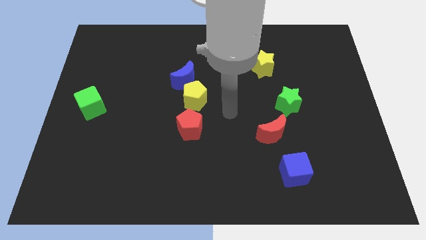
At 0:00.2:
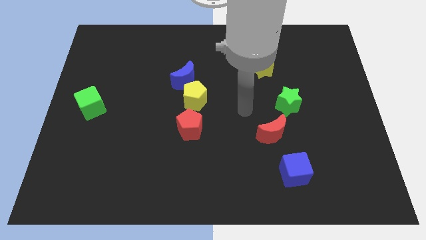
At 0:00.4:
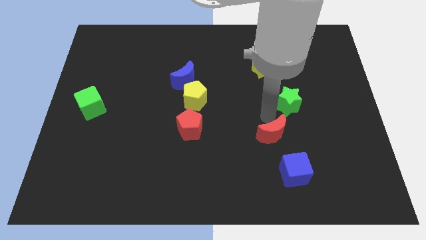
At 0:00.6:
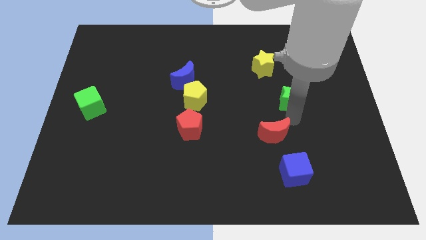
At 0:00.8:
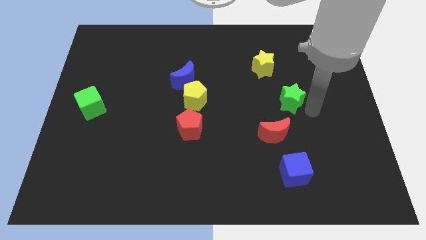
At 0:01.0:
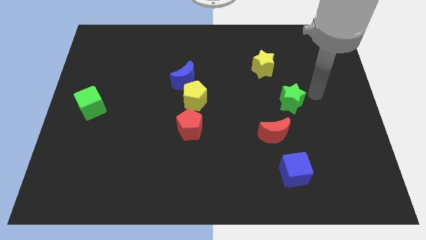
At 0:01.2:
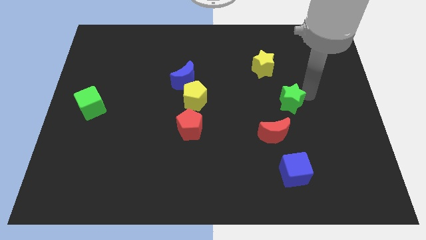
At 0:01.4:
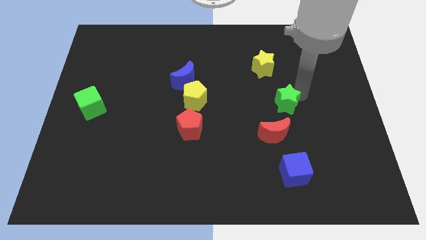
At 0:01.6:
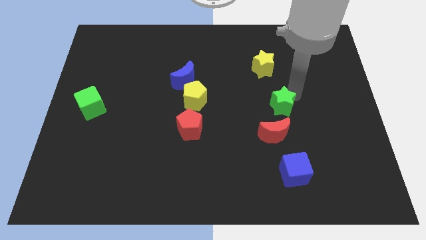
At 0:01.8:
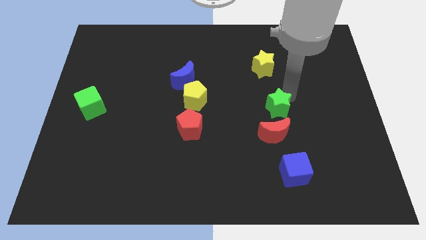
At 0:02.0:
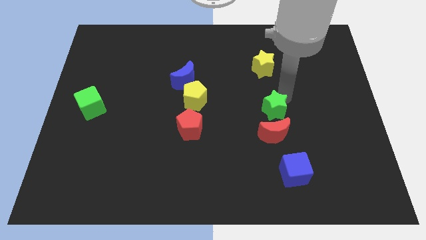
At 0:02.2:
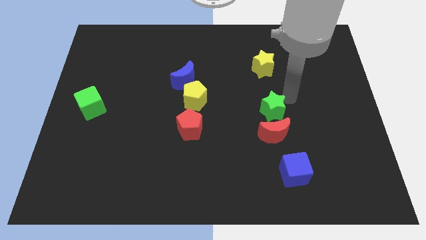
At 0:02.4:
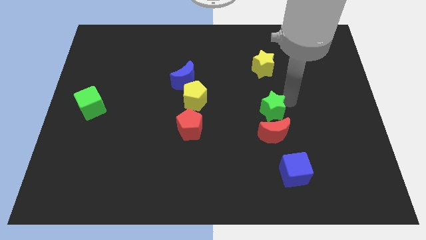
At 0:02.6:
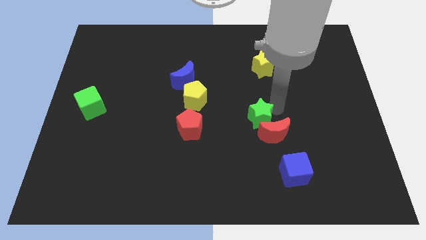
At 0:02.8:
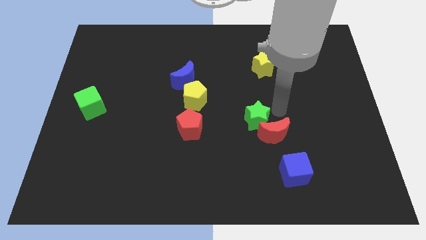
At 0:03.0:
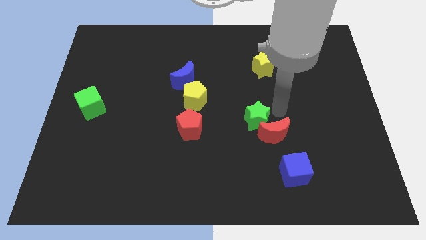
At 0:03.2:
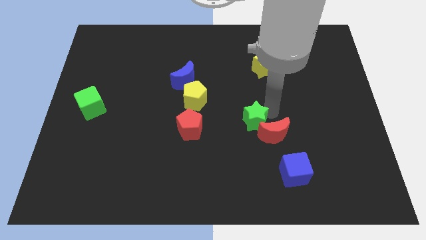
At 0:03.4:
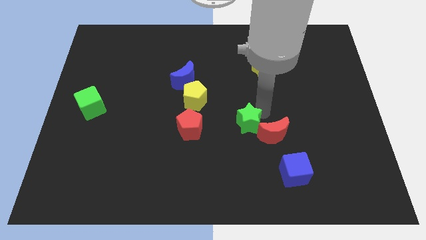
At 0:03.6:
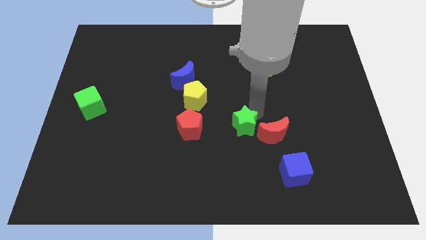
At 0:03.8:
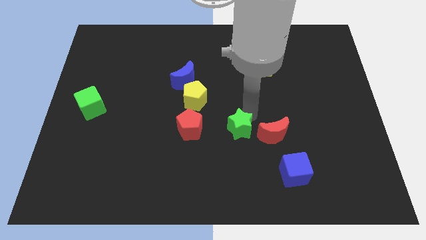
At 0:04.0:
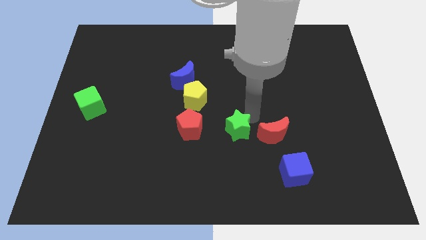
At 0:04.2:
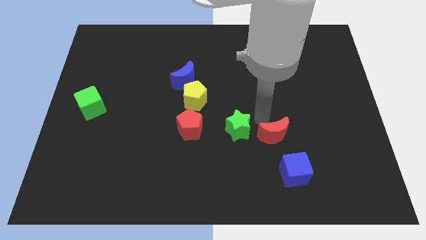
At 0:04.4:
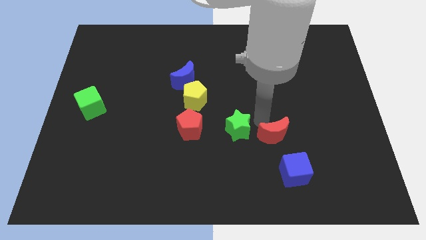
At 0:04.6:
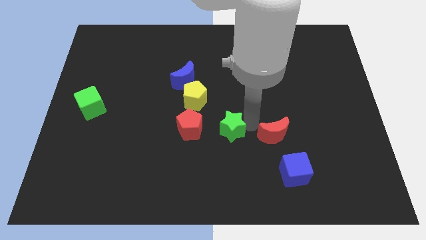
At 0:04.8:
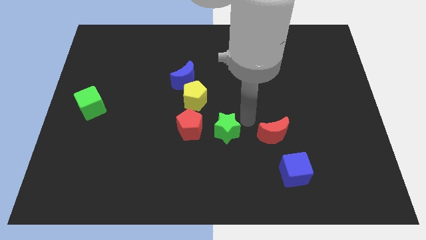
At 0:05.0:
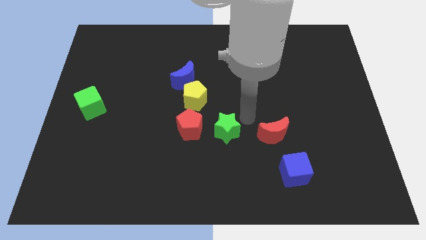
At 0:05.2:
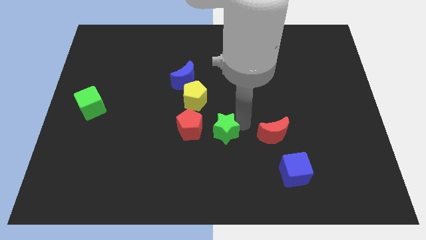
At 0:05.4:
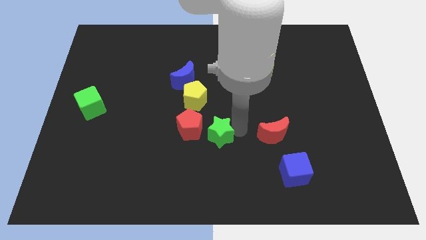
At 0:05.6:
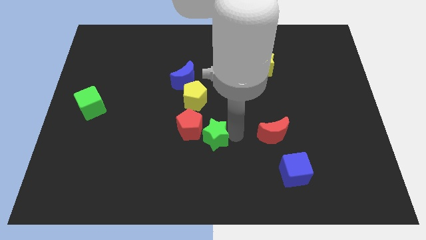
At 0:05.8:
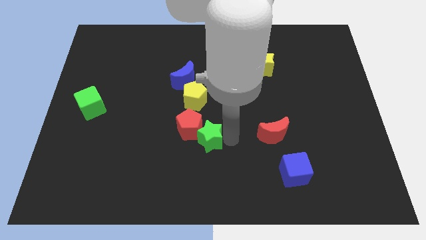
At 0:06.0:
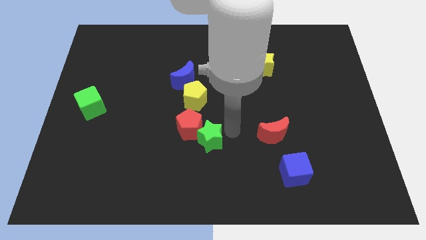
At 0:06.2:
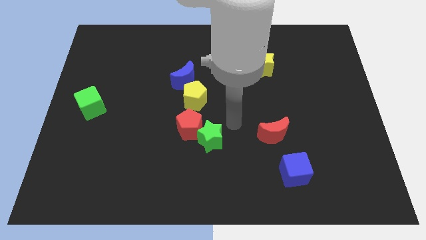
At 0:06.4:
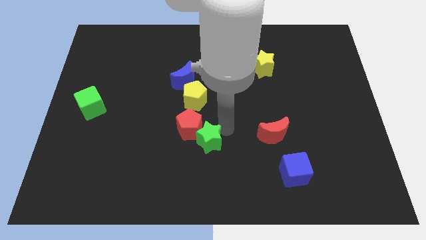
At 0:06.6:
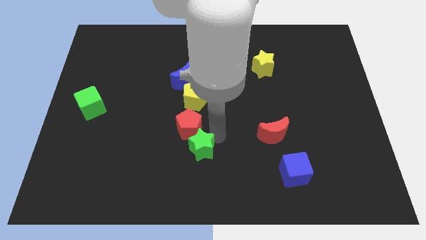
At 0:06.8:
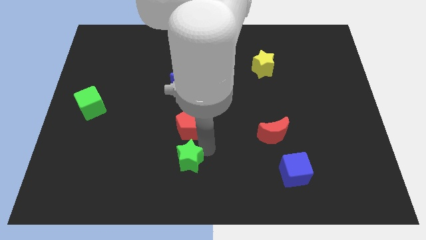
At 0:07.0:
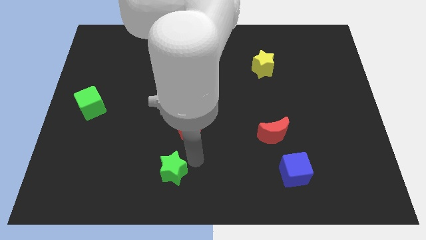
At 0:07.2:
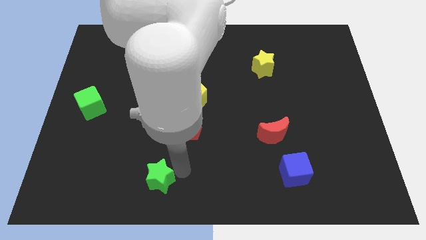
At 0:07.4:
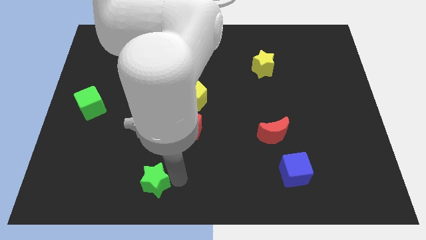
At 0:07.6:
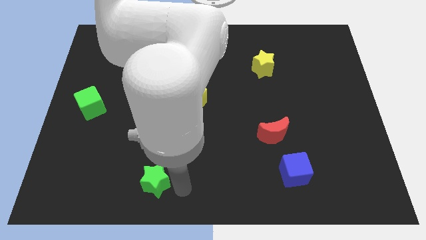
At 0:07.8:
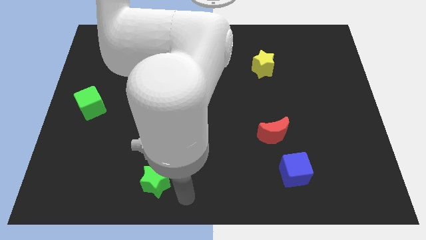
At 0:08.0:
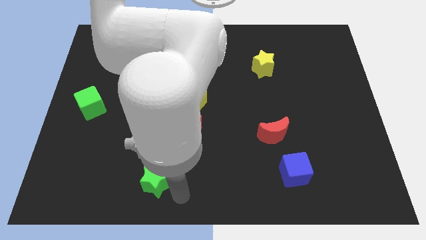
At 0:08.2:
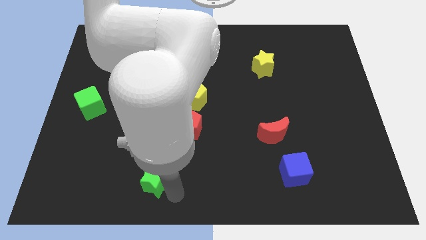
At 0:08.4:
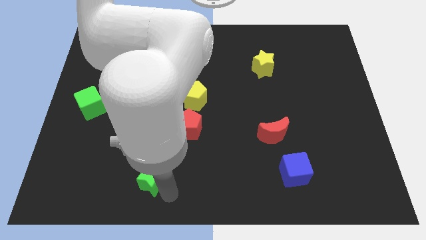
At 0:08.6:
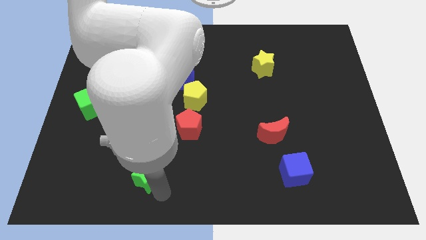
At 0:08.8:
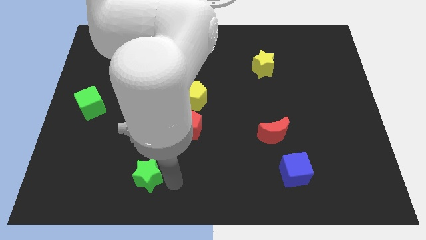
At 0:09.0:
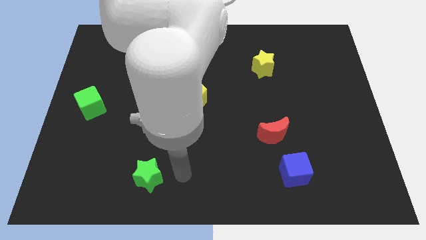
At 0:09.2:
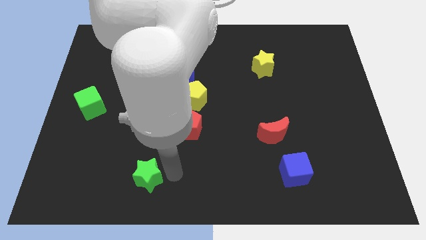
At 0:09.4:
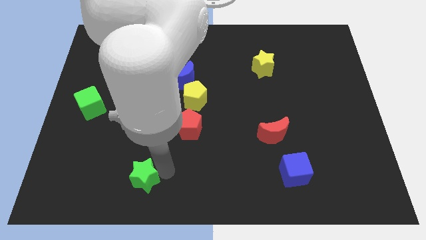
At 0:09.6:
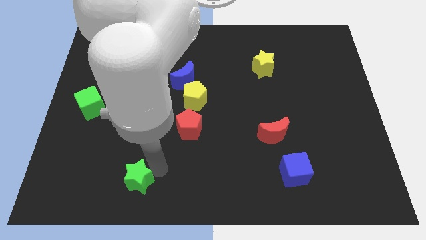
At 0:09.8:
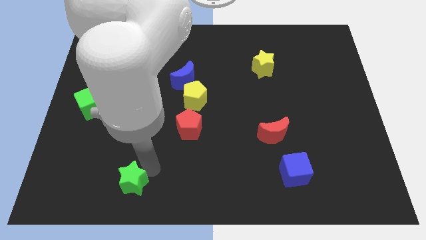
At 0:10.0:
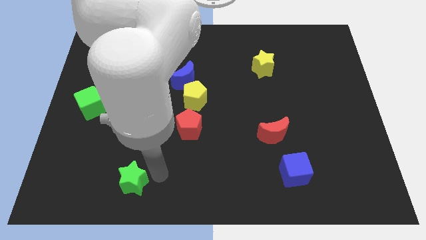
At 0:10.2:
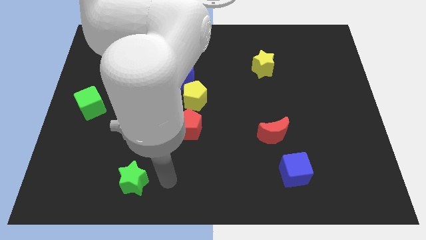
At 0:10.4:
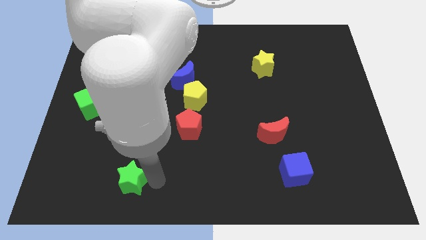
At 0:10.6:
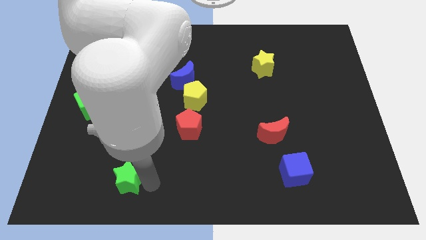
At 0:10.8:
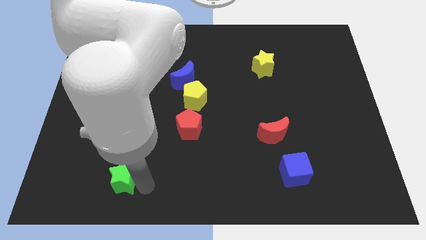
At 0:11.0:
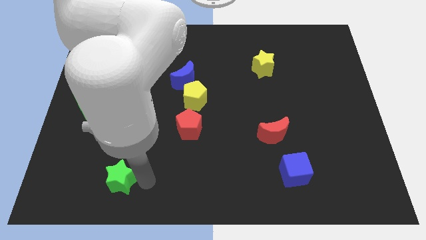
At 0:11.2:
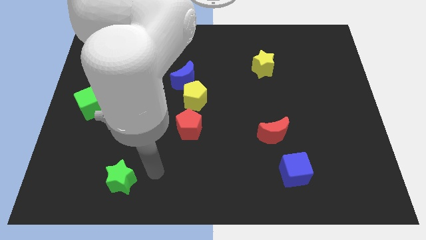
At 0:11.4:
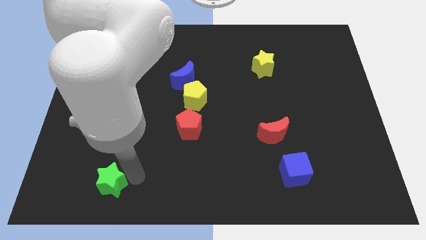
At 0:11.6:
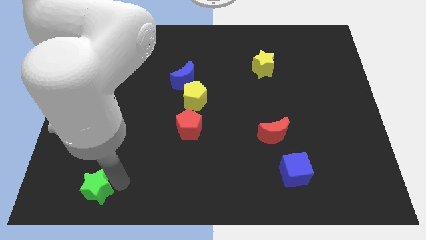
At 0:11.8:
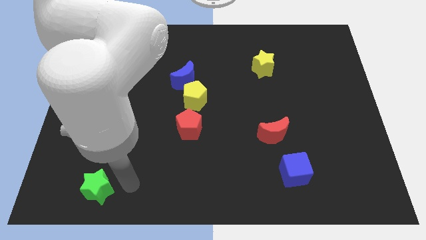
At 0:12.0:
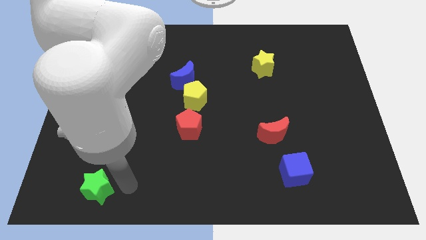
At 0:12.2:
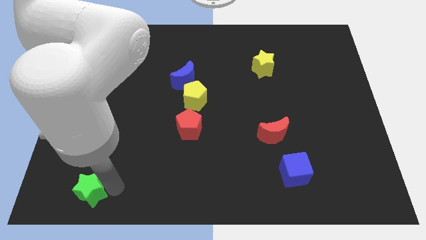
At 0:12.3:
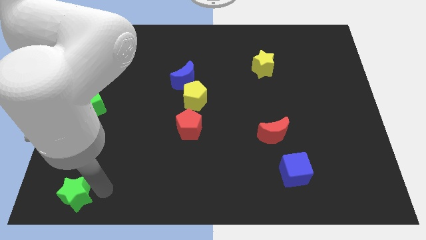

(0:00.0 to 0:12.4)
push the green star to the bottom left
